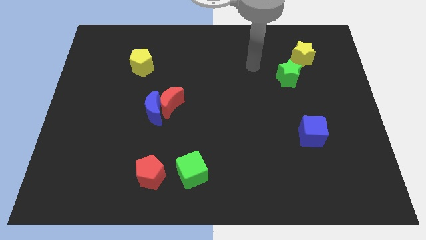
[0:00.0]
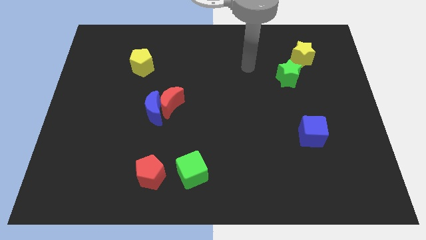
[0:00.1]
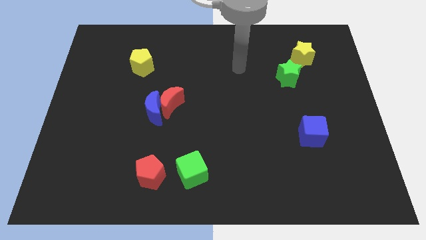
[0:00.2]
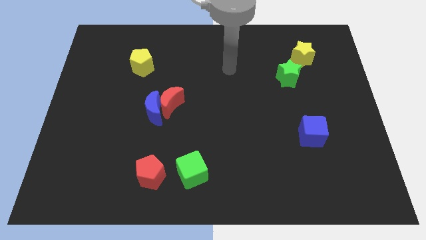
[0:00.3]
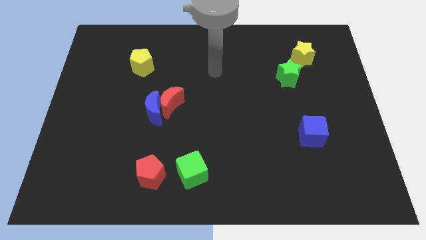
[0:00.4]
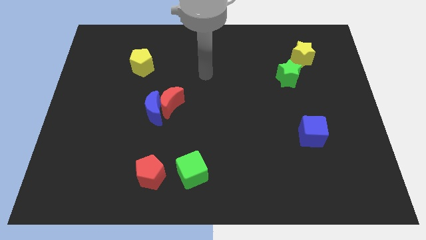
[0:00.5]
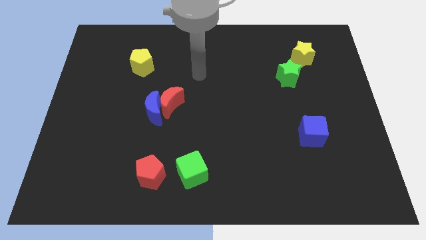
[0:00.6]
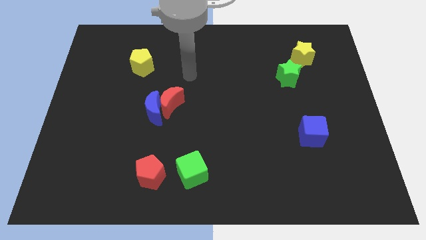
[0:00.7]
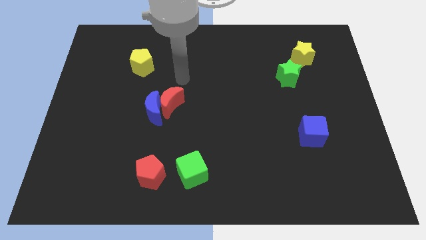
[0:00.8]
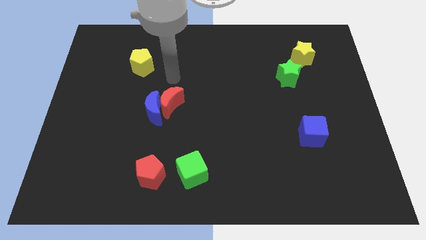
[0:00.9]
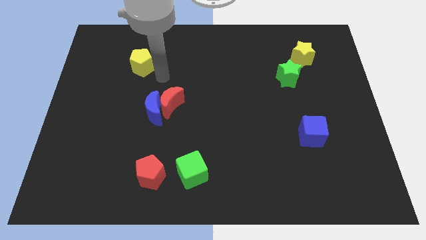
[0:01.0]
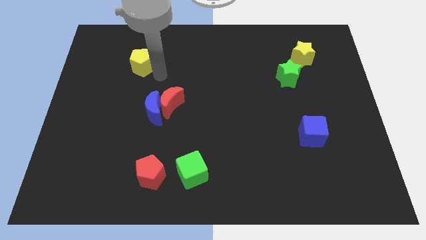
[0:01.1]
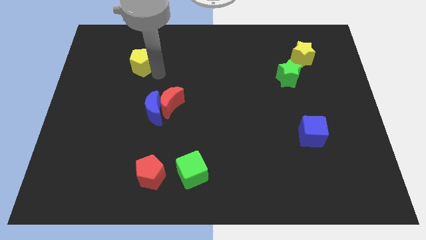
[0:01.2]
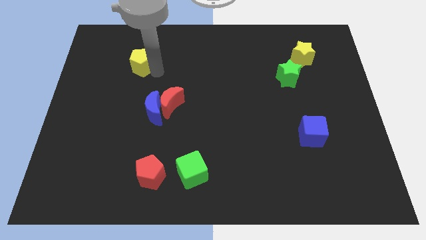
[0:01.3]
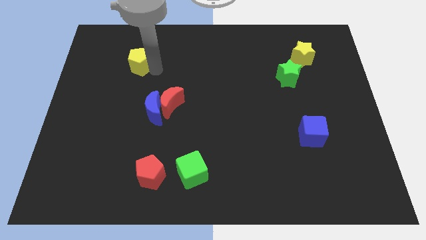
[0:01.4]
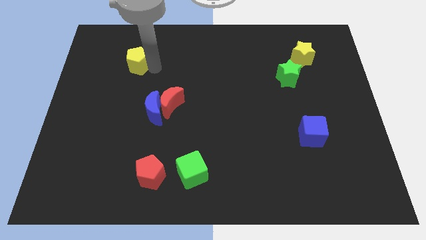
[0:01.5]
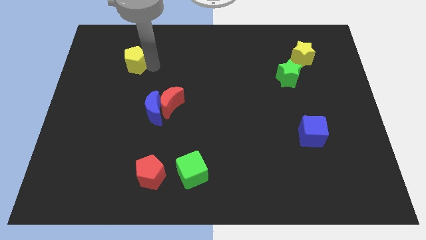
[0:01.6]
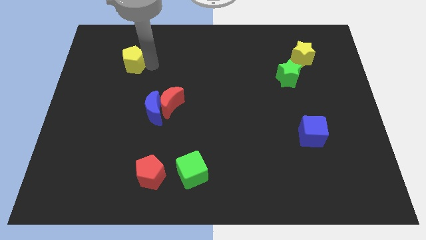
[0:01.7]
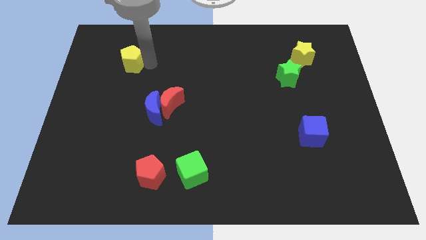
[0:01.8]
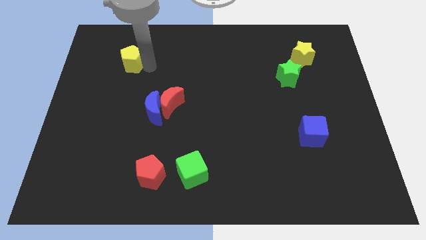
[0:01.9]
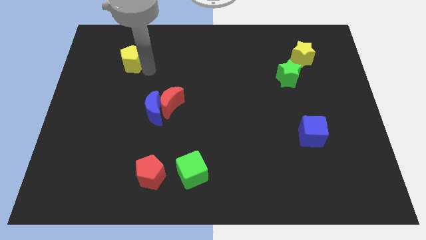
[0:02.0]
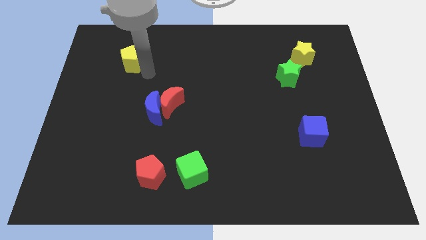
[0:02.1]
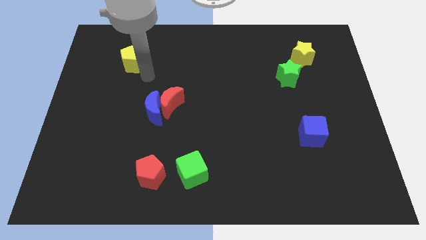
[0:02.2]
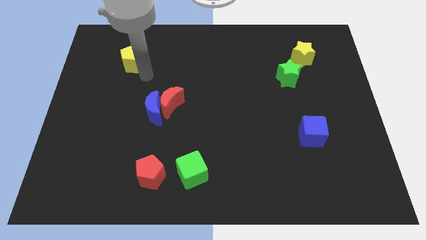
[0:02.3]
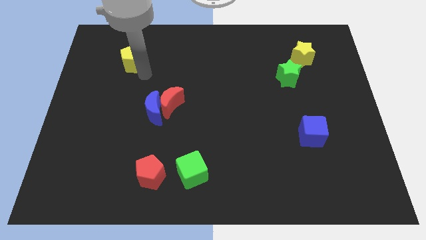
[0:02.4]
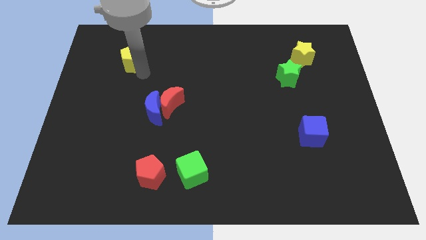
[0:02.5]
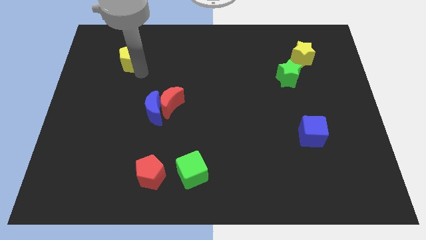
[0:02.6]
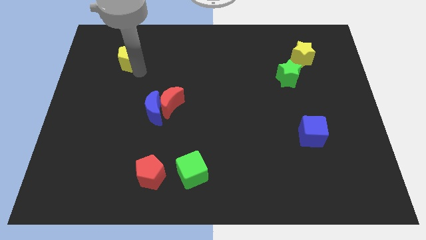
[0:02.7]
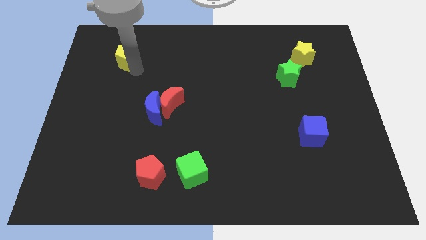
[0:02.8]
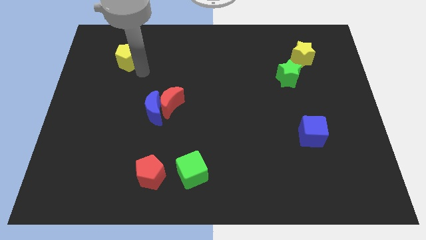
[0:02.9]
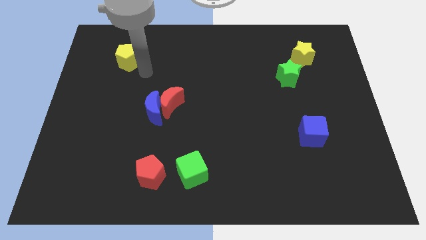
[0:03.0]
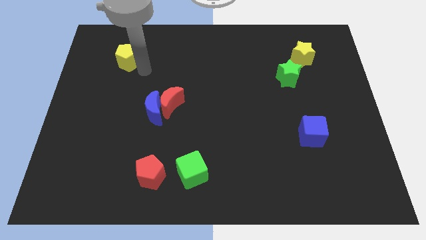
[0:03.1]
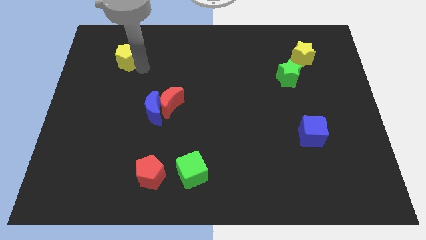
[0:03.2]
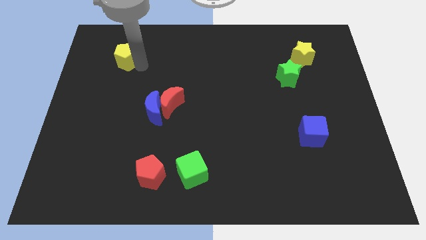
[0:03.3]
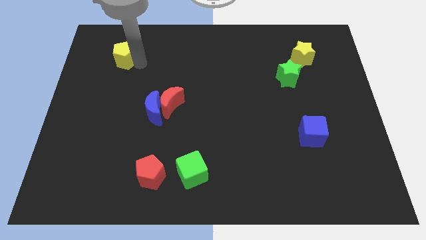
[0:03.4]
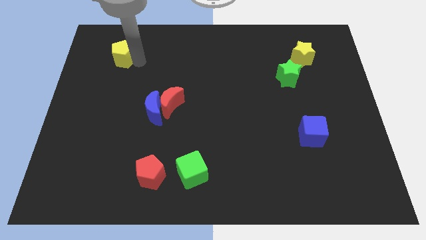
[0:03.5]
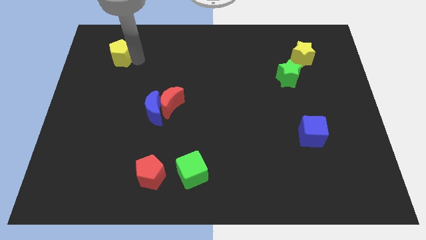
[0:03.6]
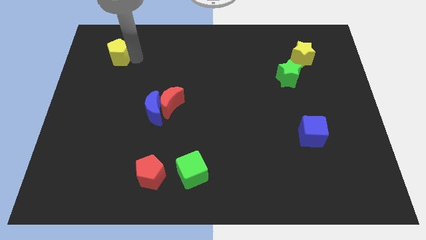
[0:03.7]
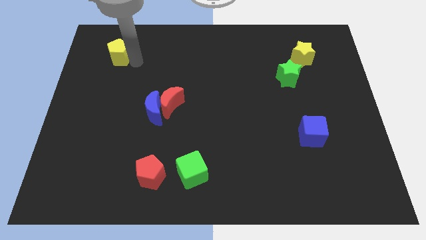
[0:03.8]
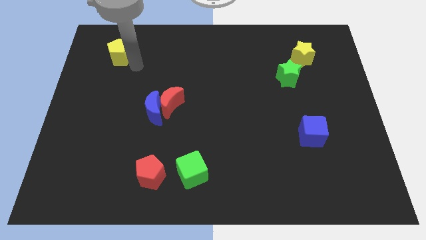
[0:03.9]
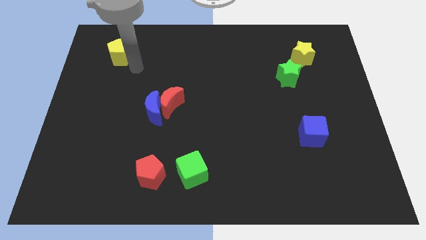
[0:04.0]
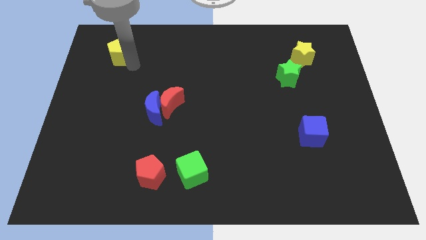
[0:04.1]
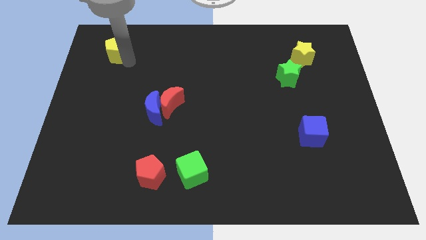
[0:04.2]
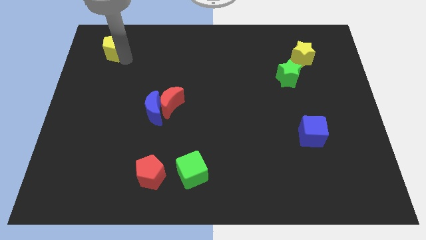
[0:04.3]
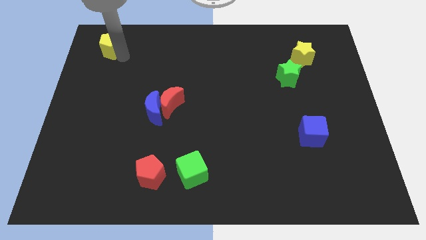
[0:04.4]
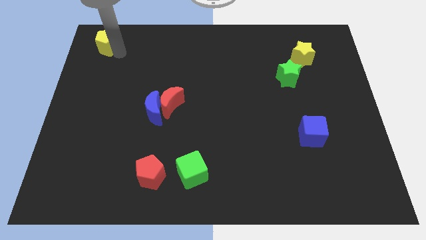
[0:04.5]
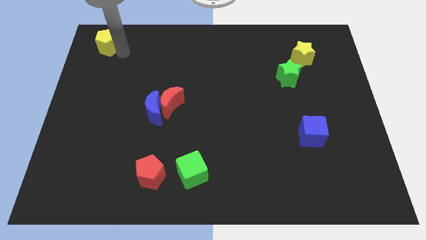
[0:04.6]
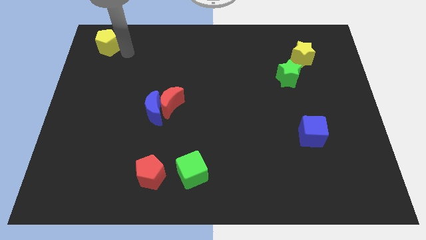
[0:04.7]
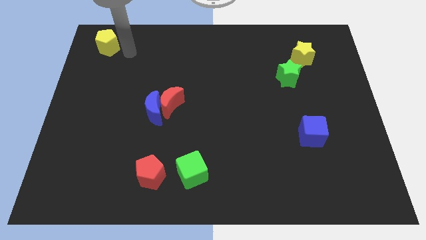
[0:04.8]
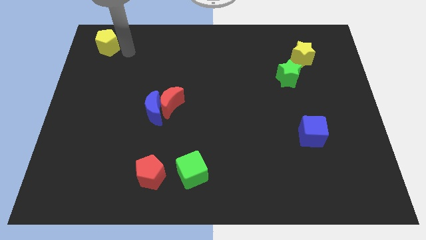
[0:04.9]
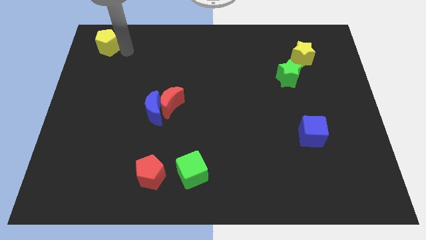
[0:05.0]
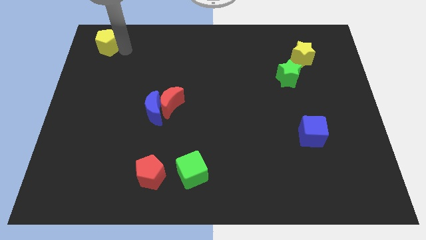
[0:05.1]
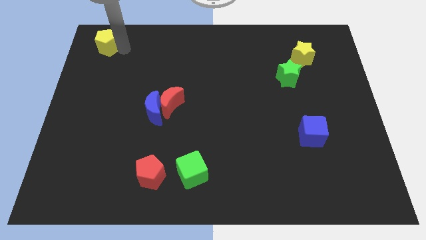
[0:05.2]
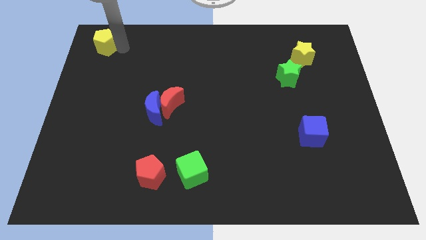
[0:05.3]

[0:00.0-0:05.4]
push the yellow pentagon to the upper left corner
